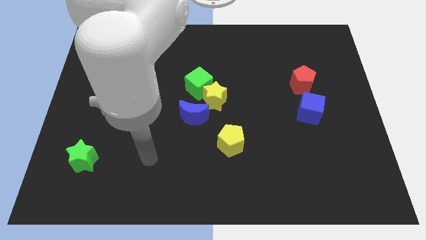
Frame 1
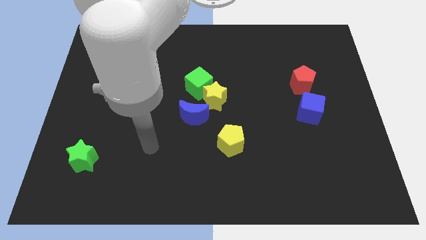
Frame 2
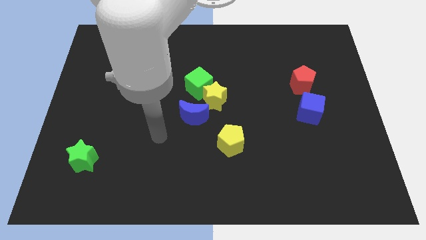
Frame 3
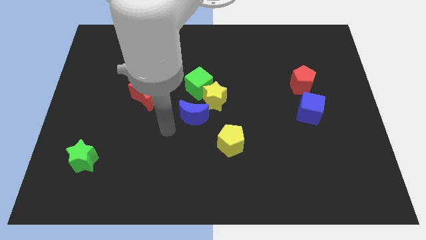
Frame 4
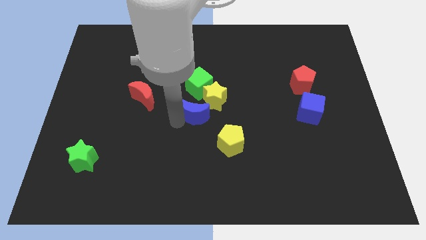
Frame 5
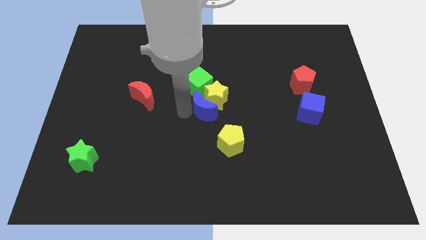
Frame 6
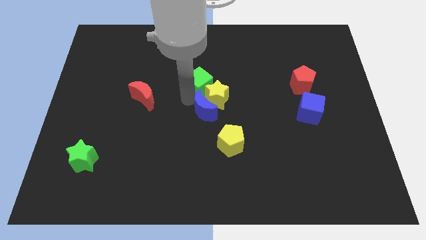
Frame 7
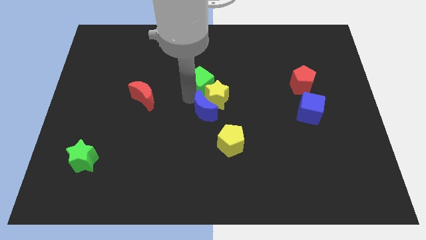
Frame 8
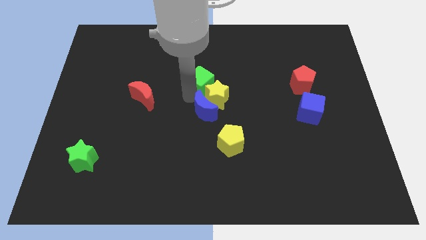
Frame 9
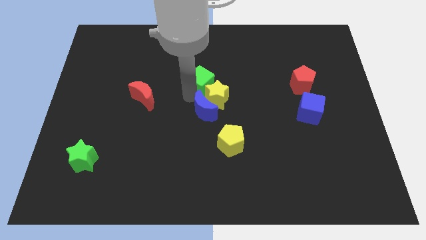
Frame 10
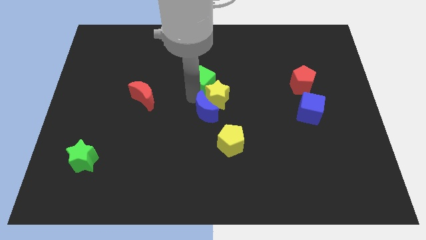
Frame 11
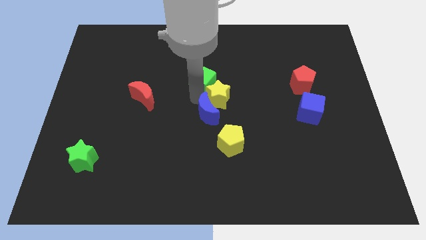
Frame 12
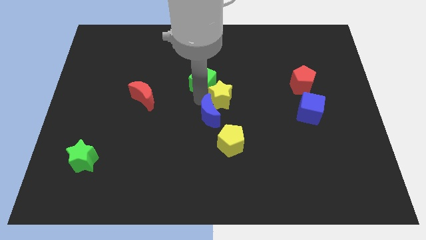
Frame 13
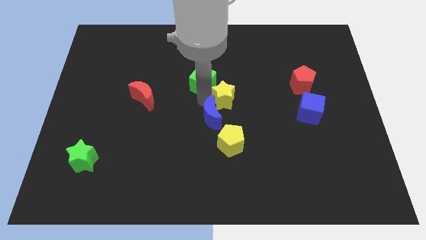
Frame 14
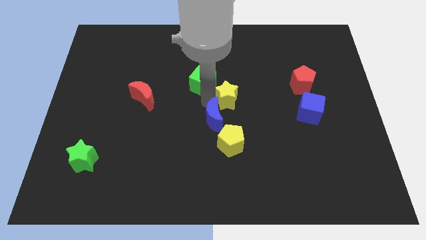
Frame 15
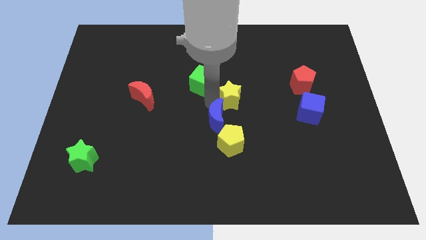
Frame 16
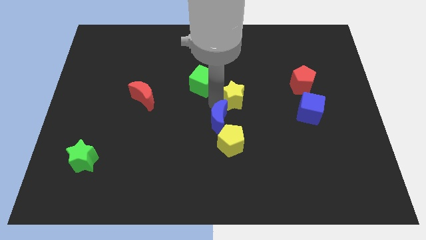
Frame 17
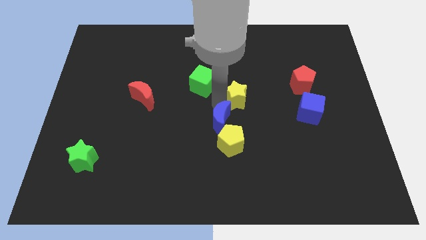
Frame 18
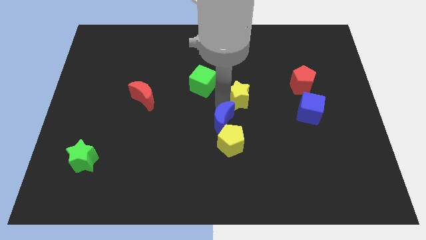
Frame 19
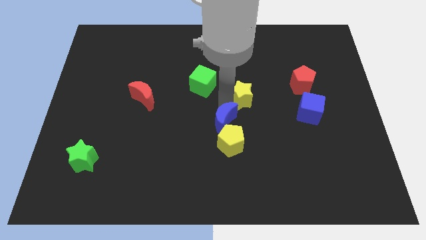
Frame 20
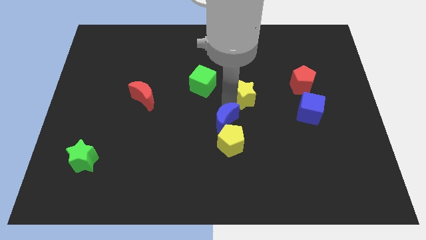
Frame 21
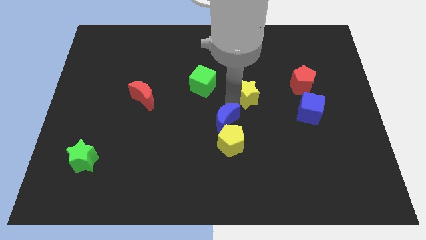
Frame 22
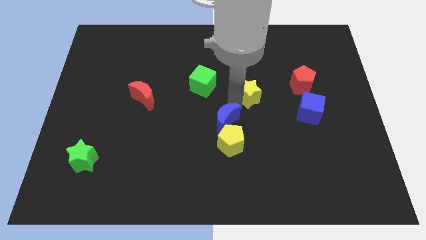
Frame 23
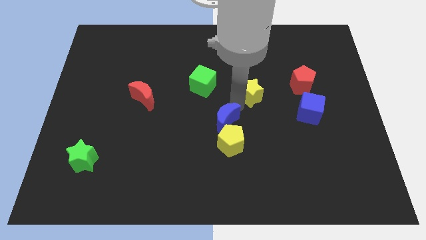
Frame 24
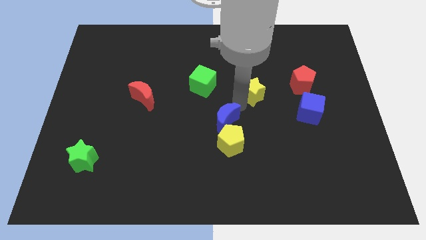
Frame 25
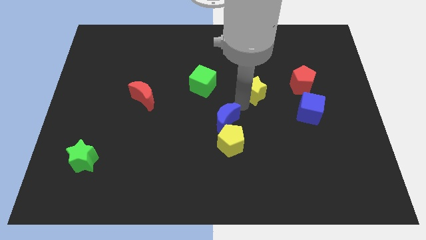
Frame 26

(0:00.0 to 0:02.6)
move the yellow star away from the green cube and blue moon

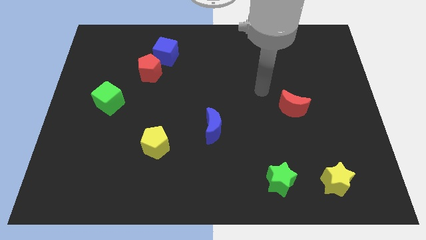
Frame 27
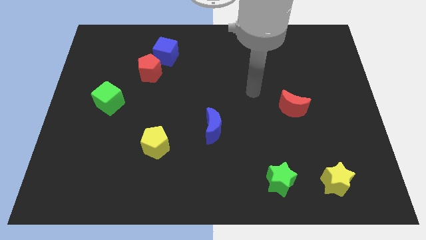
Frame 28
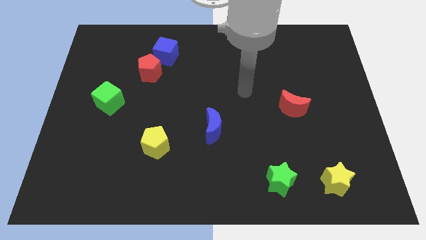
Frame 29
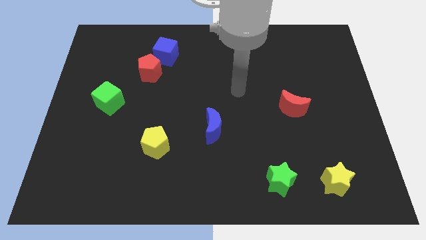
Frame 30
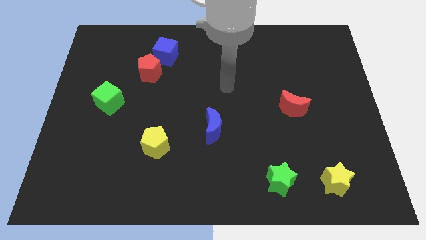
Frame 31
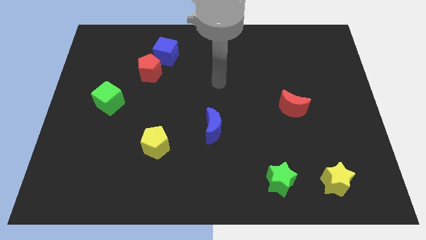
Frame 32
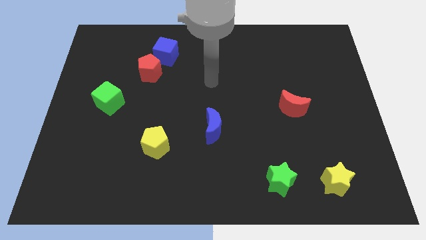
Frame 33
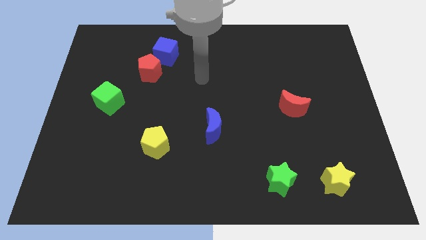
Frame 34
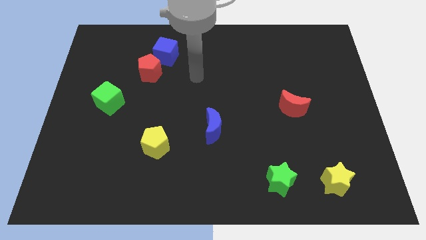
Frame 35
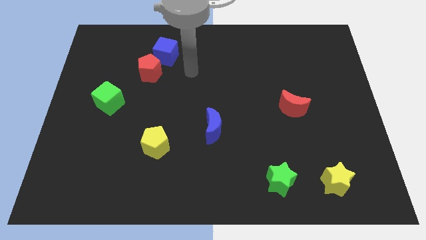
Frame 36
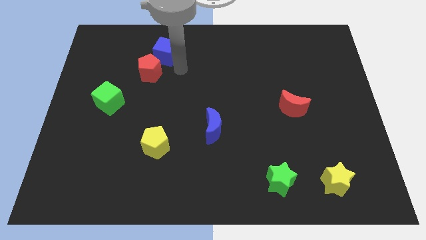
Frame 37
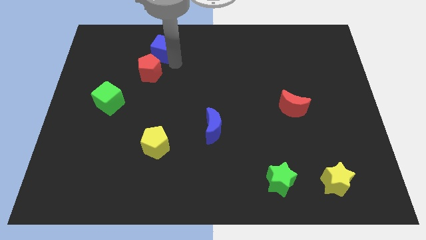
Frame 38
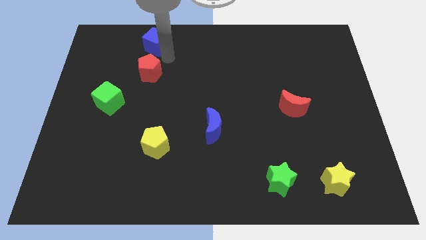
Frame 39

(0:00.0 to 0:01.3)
pull the red pentagon apart from the blue cube

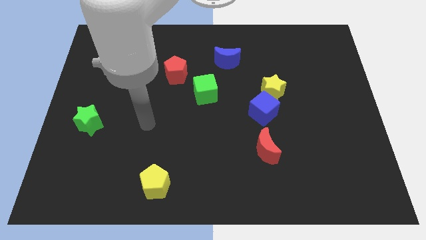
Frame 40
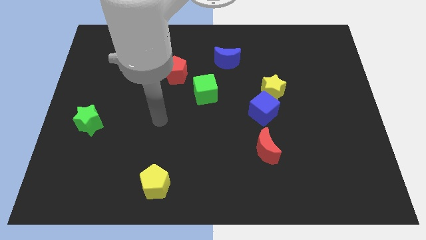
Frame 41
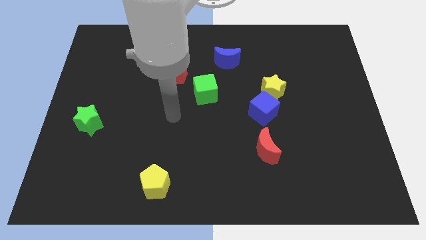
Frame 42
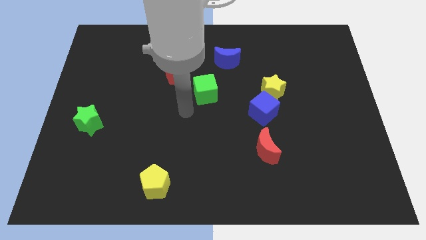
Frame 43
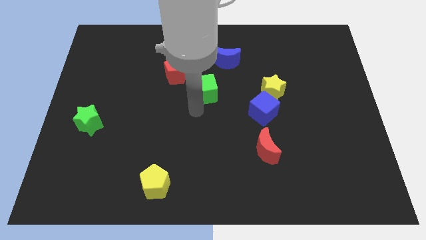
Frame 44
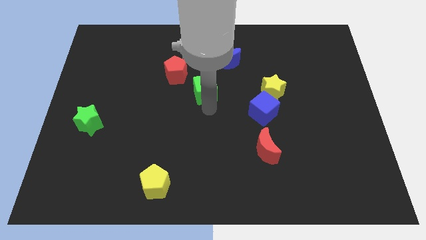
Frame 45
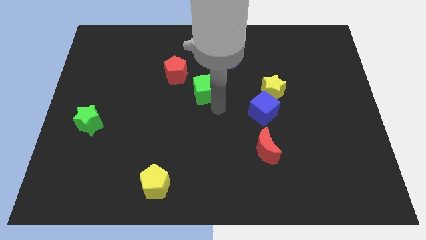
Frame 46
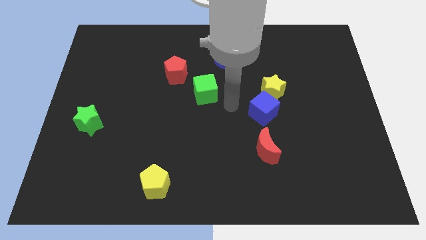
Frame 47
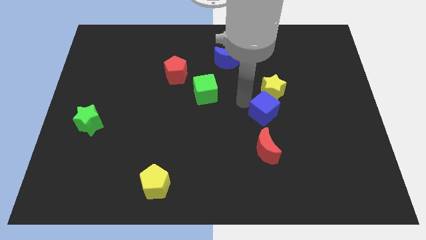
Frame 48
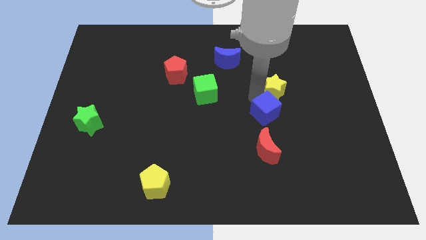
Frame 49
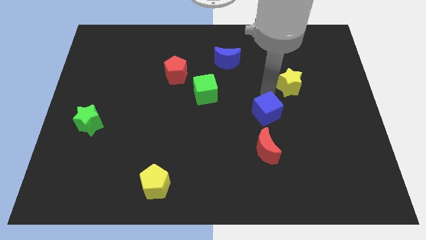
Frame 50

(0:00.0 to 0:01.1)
move the blue cube away from the yellow star

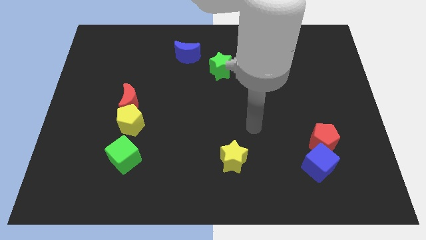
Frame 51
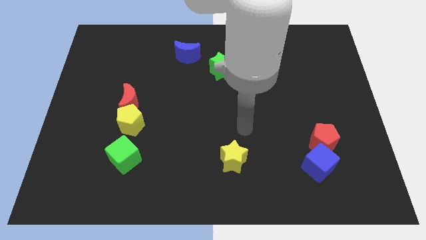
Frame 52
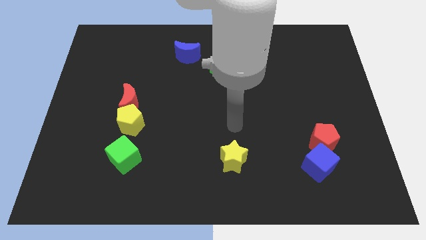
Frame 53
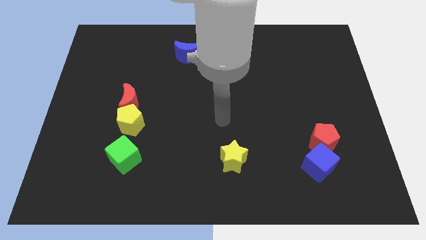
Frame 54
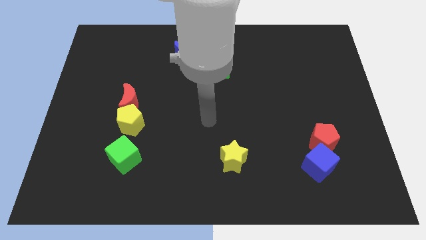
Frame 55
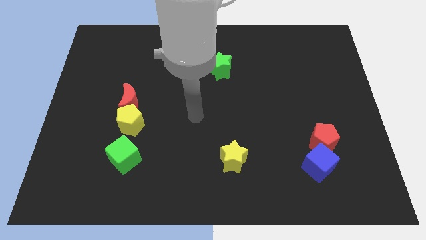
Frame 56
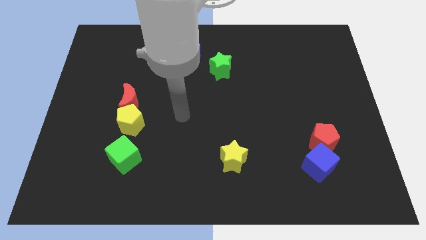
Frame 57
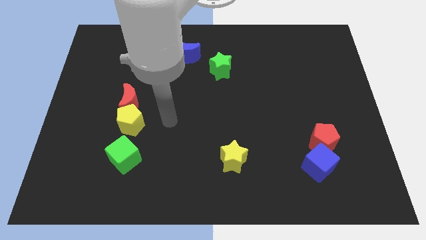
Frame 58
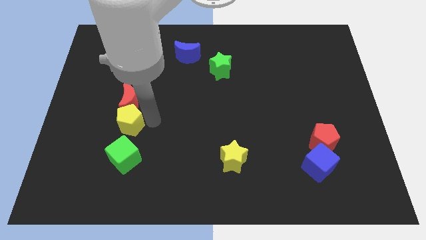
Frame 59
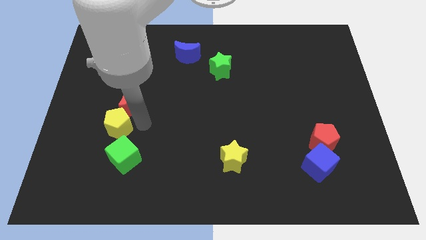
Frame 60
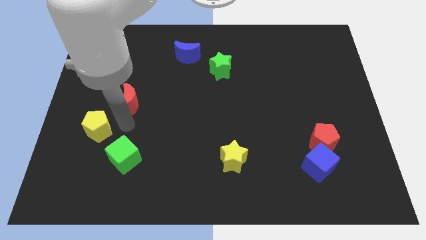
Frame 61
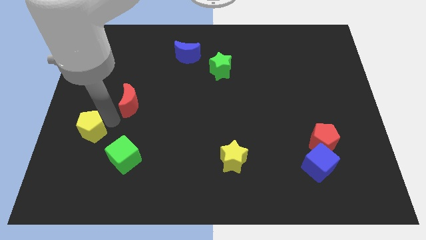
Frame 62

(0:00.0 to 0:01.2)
pull the red moon apart from the yellow pentagon

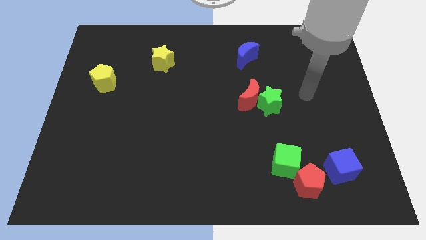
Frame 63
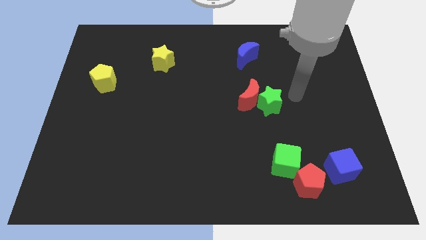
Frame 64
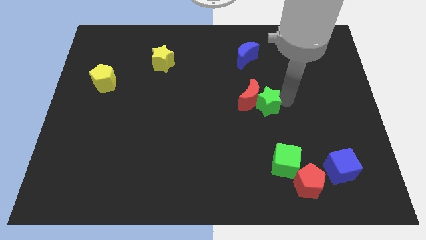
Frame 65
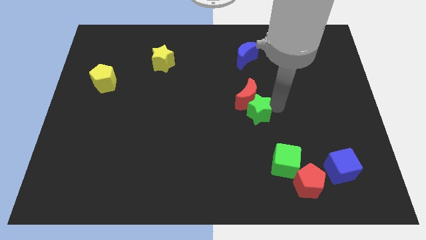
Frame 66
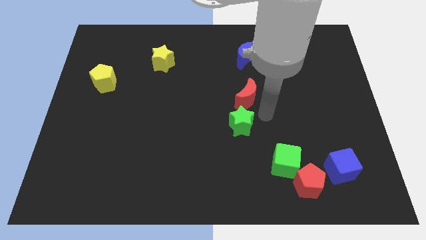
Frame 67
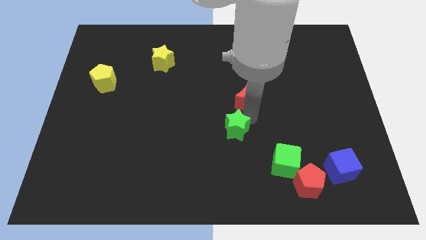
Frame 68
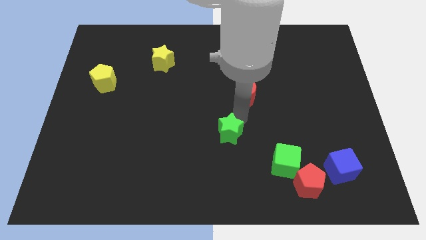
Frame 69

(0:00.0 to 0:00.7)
pull the red moon apart from the green star

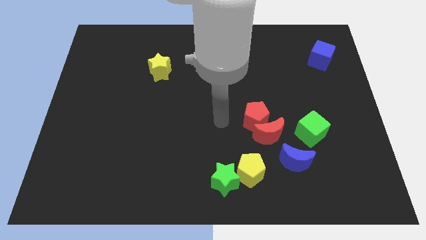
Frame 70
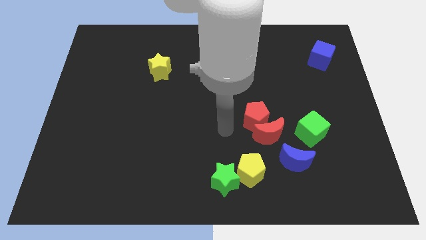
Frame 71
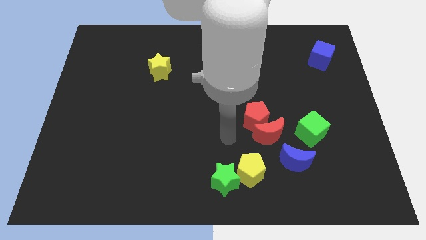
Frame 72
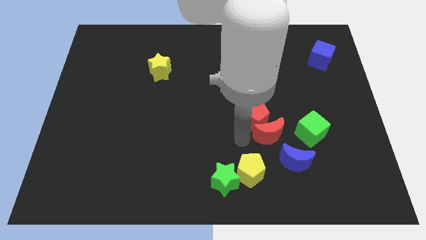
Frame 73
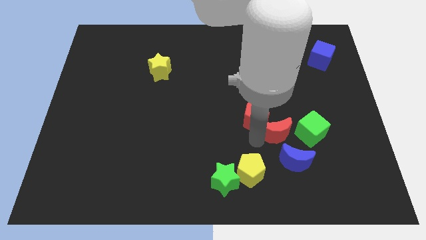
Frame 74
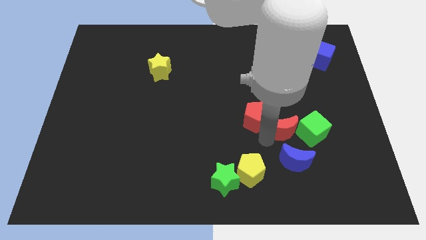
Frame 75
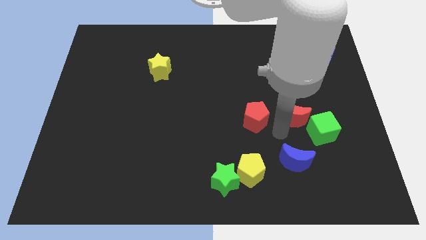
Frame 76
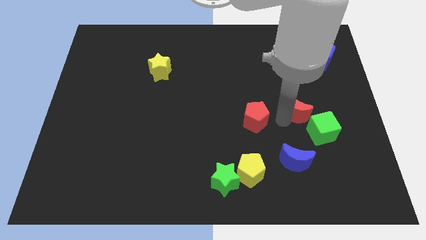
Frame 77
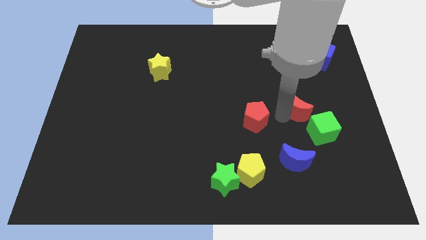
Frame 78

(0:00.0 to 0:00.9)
pull the red pentagon apart from the red moon

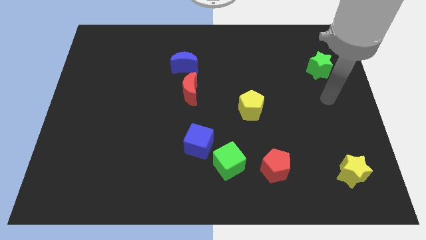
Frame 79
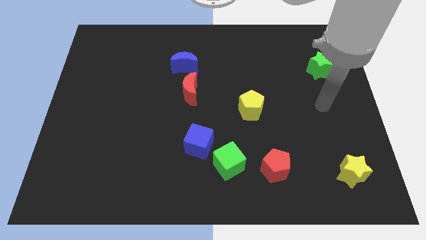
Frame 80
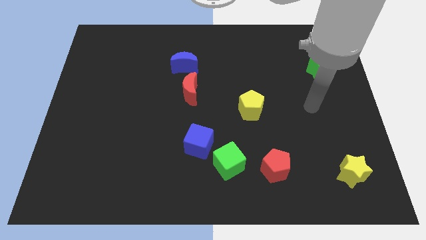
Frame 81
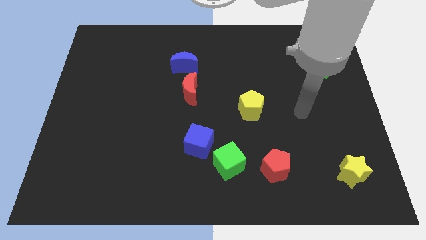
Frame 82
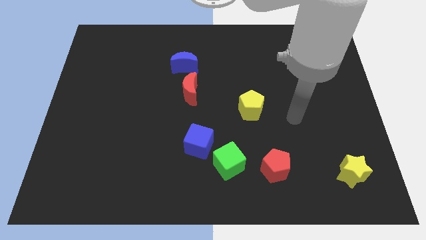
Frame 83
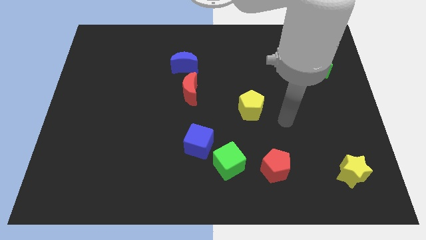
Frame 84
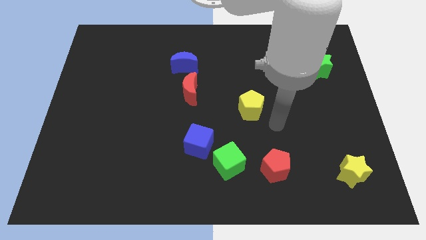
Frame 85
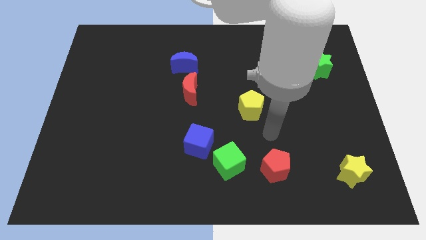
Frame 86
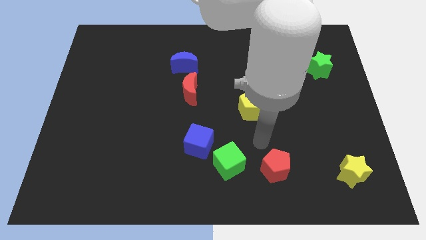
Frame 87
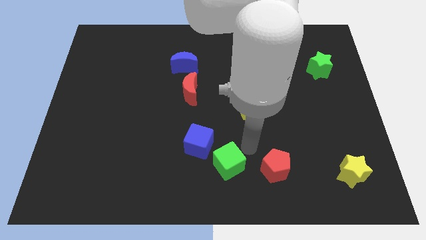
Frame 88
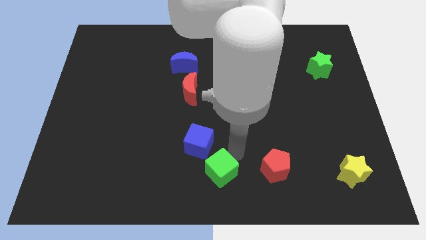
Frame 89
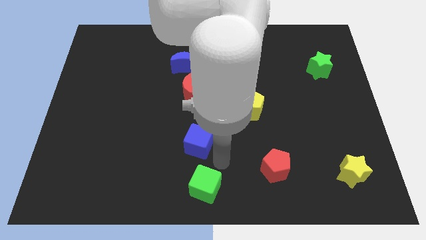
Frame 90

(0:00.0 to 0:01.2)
separate the blue cube from the green cube

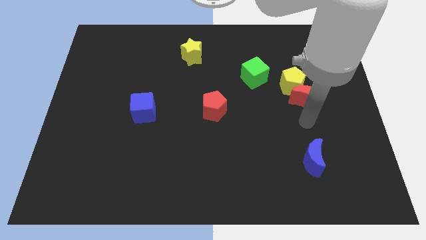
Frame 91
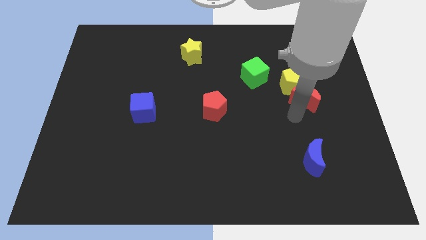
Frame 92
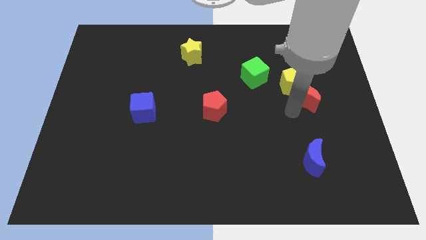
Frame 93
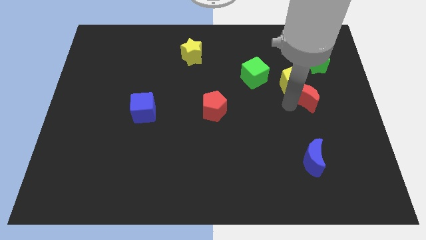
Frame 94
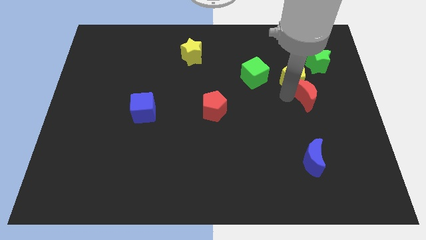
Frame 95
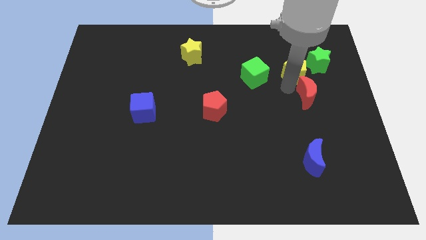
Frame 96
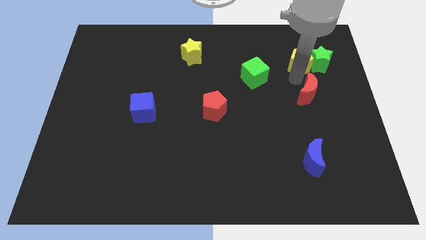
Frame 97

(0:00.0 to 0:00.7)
separate the red moon from the yellow pentagon
